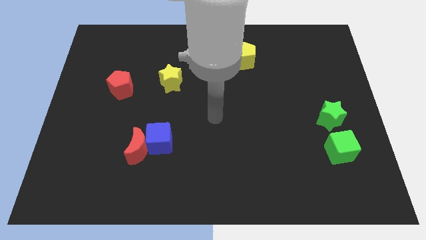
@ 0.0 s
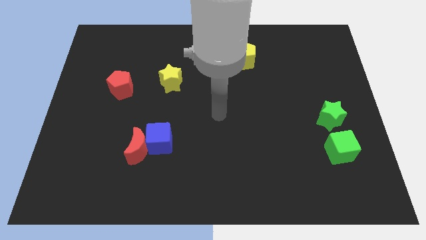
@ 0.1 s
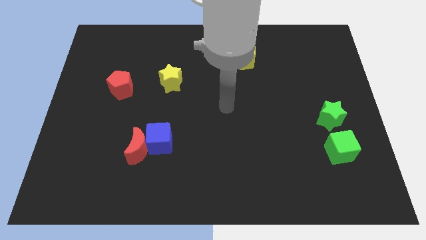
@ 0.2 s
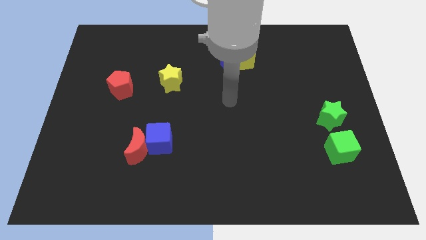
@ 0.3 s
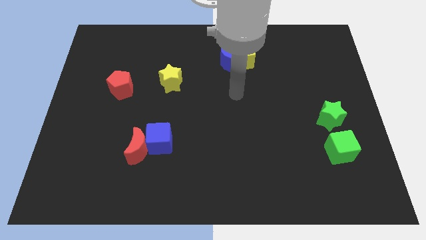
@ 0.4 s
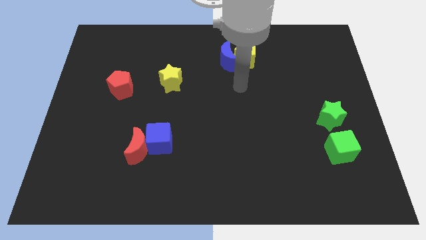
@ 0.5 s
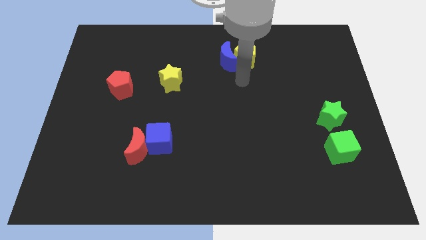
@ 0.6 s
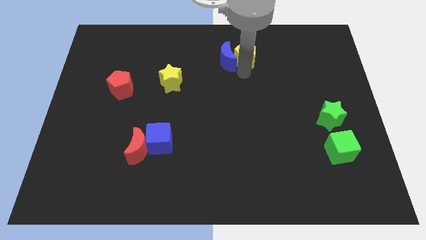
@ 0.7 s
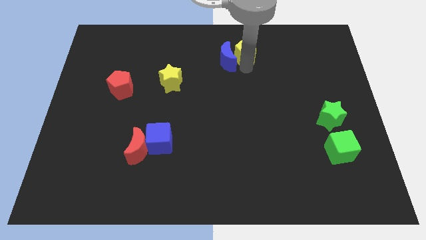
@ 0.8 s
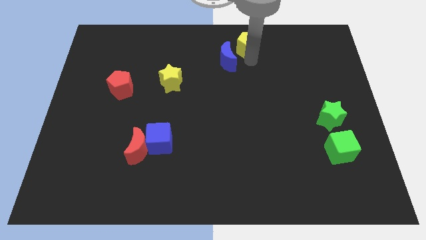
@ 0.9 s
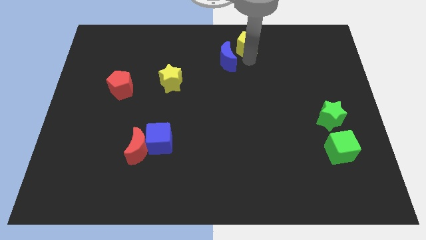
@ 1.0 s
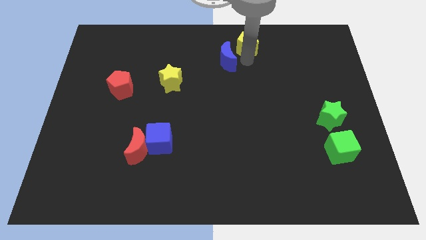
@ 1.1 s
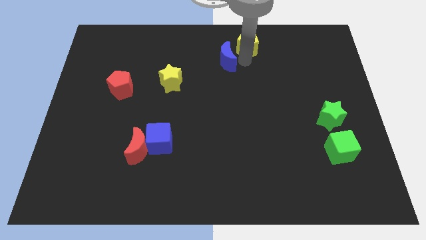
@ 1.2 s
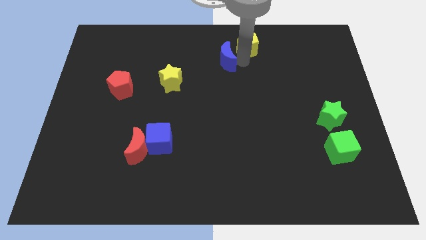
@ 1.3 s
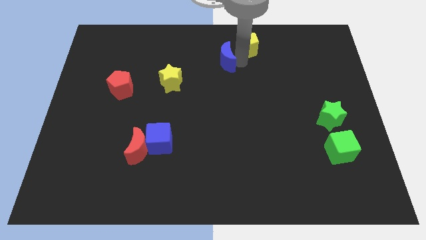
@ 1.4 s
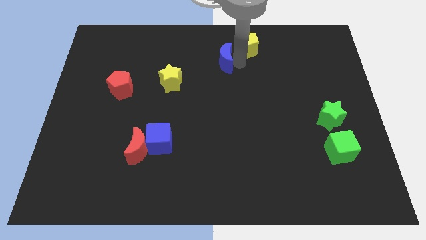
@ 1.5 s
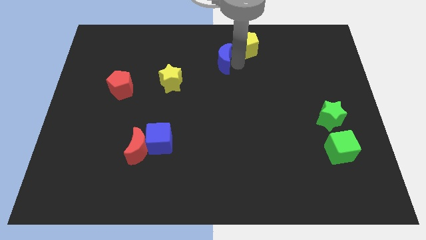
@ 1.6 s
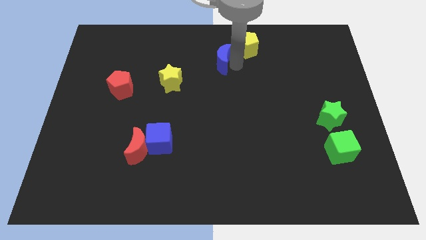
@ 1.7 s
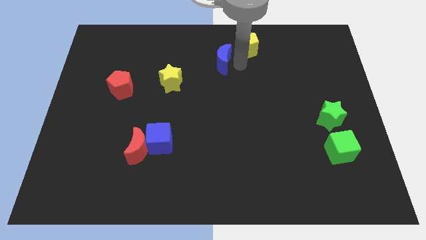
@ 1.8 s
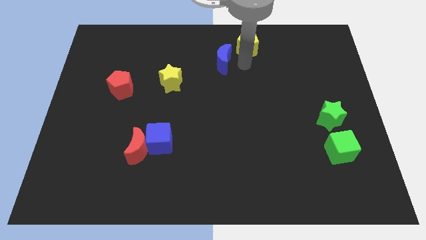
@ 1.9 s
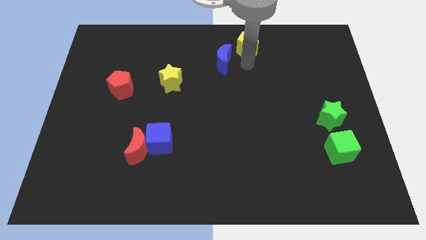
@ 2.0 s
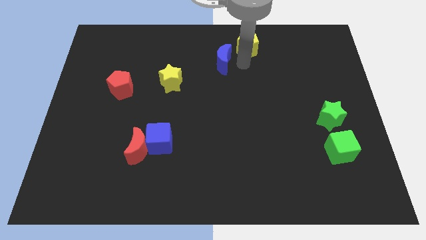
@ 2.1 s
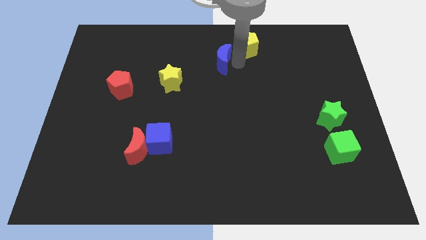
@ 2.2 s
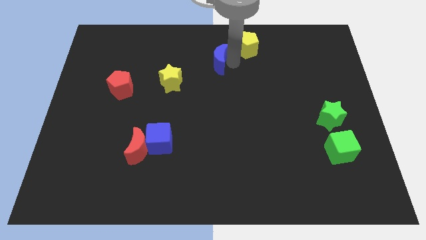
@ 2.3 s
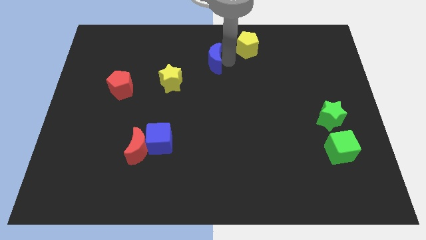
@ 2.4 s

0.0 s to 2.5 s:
pull the blue moon apart from the yellow pentagon

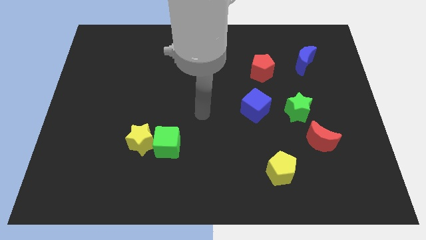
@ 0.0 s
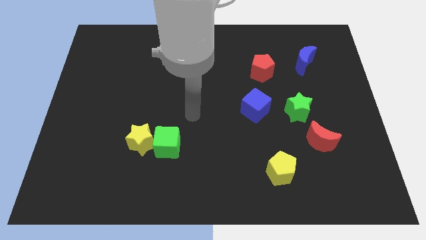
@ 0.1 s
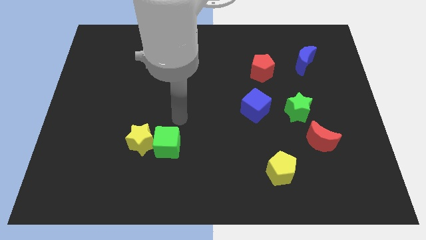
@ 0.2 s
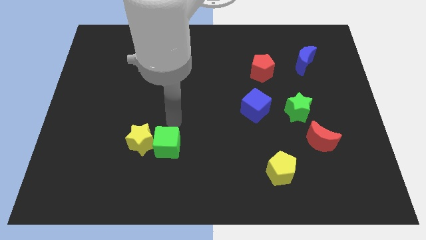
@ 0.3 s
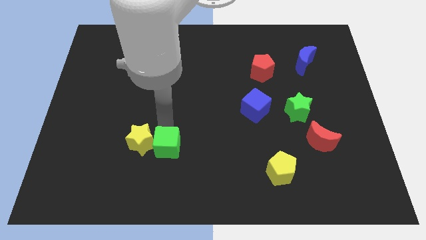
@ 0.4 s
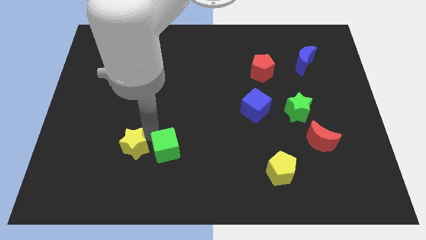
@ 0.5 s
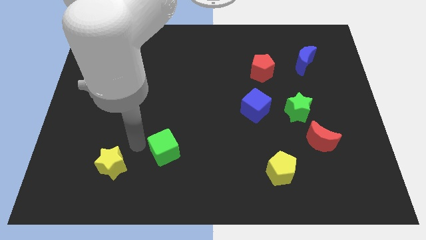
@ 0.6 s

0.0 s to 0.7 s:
pull the green cube apart from the yellow star

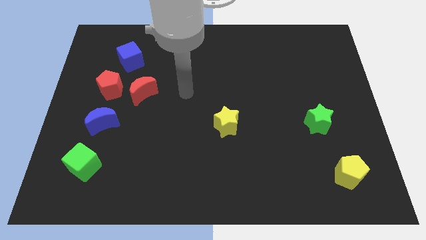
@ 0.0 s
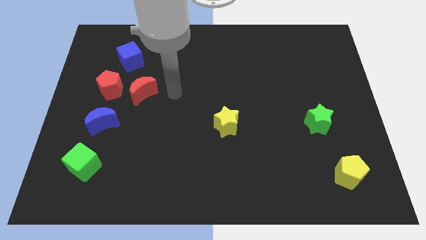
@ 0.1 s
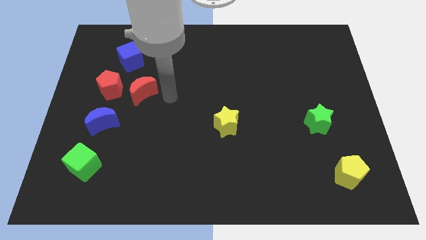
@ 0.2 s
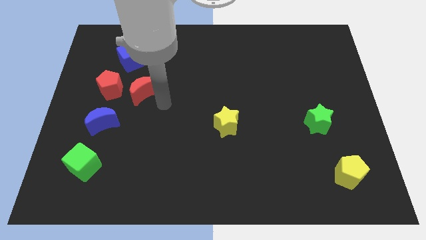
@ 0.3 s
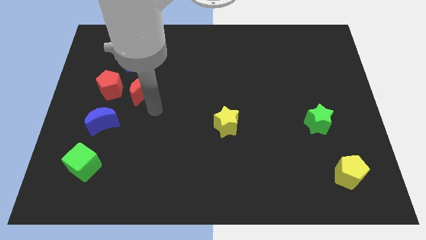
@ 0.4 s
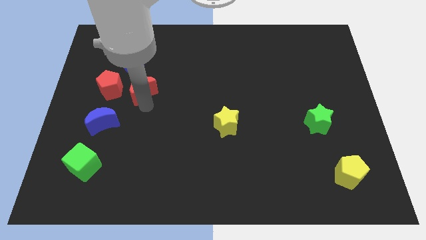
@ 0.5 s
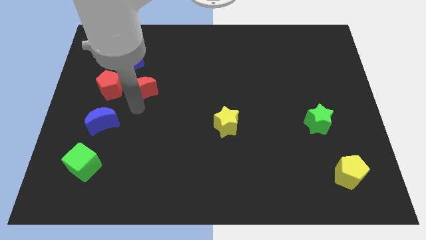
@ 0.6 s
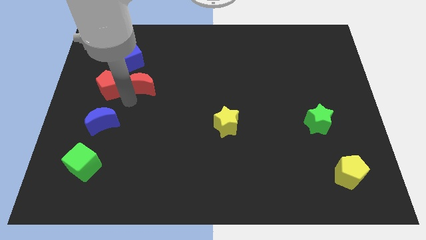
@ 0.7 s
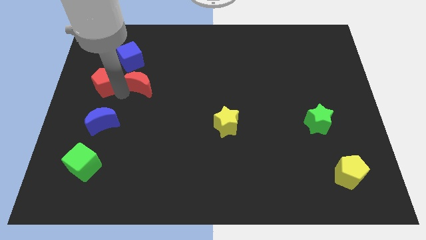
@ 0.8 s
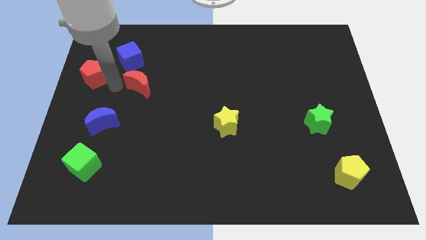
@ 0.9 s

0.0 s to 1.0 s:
move the red moon away from the red pentagon

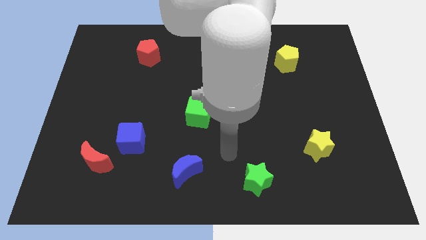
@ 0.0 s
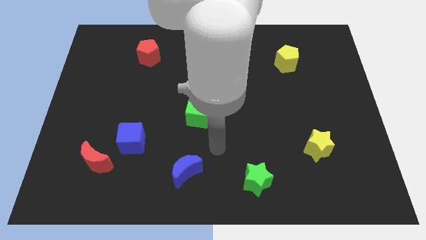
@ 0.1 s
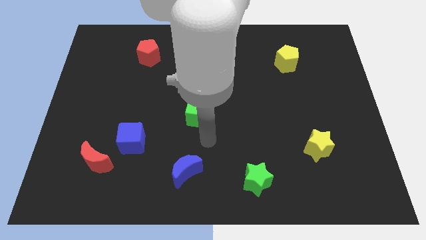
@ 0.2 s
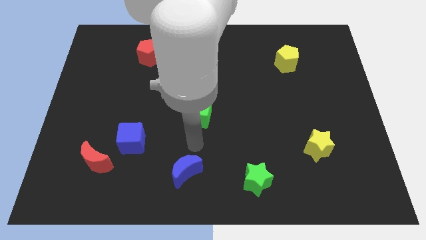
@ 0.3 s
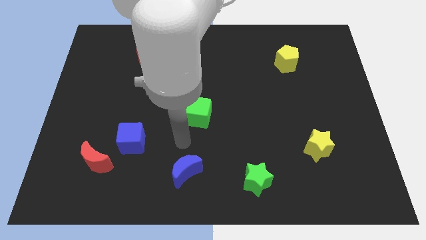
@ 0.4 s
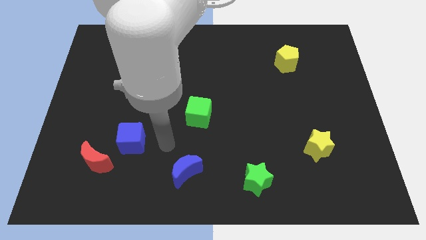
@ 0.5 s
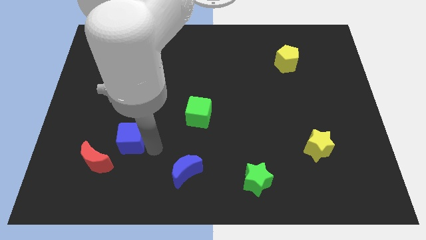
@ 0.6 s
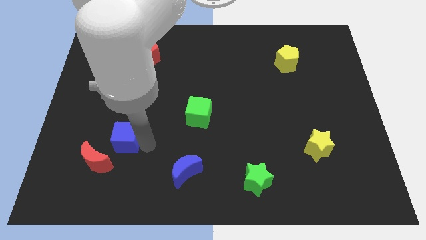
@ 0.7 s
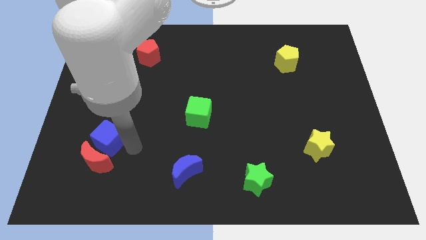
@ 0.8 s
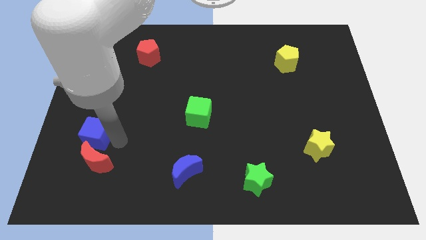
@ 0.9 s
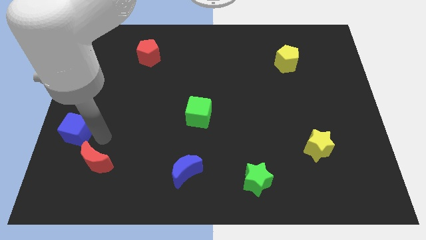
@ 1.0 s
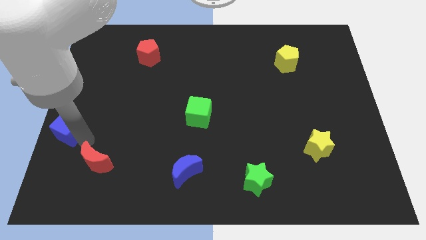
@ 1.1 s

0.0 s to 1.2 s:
pull the red moon apart from the blue cube

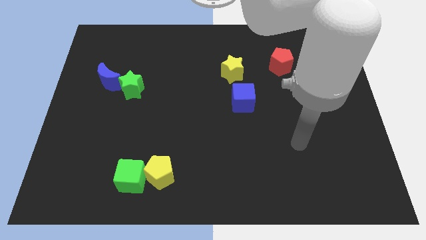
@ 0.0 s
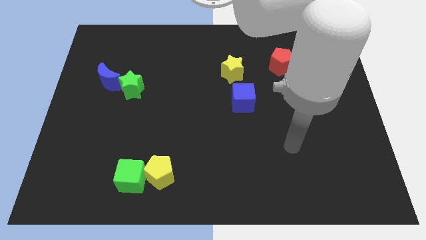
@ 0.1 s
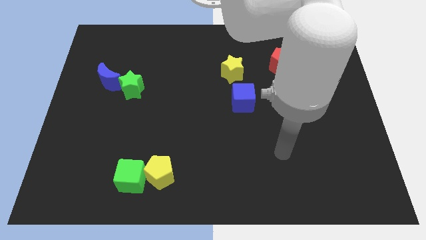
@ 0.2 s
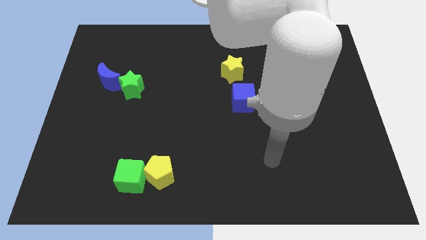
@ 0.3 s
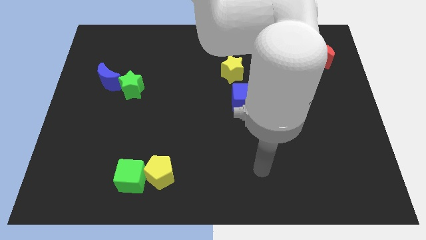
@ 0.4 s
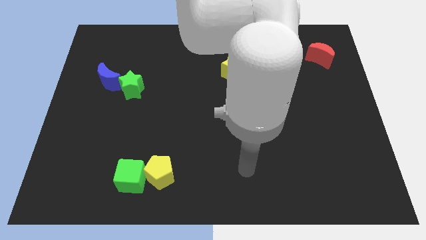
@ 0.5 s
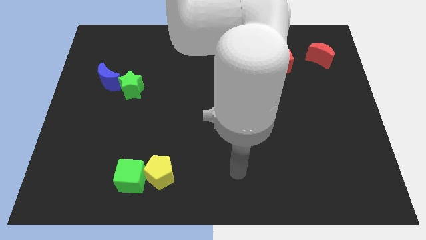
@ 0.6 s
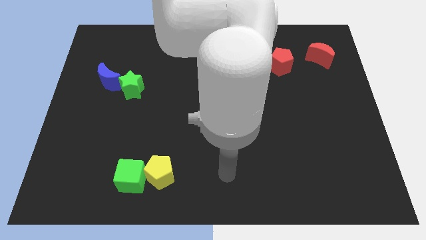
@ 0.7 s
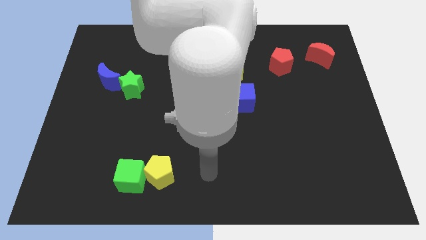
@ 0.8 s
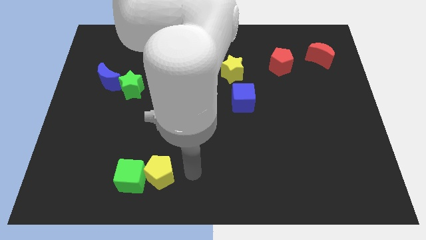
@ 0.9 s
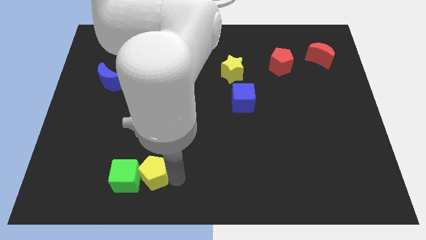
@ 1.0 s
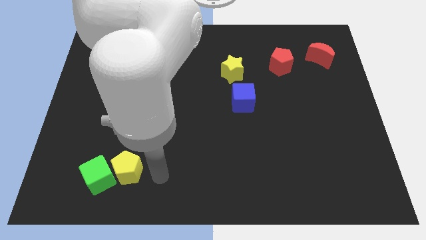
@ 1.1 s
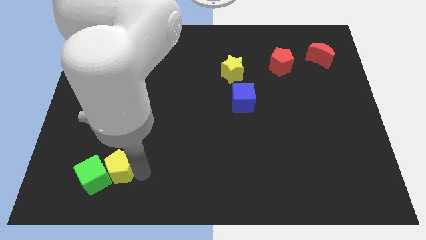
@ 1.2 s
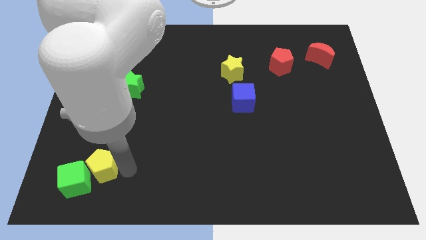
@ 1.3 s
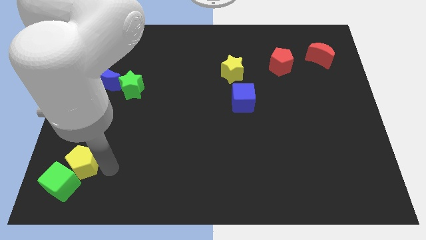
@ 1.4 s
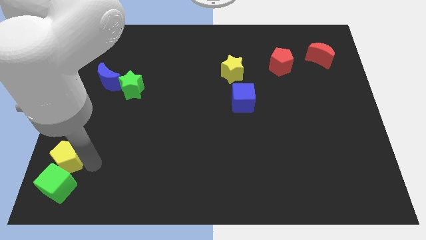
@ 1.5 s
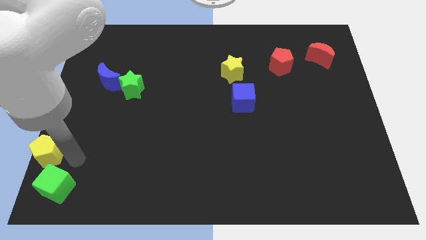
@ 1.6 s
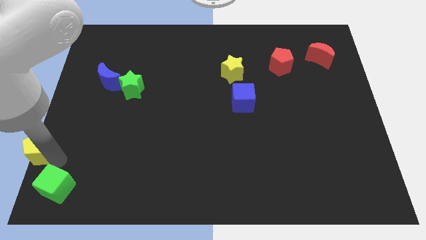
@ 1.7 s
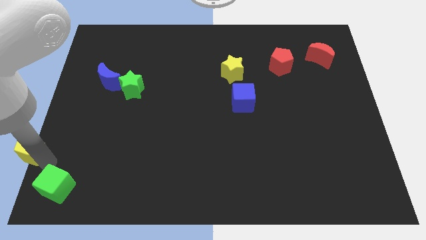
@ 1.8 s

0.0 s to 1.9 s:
move the green cube away from the yellow pentagon

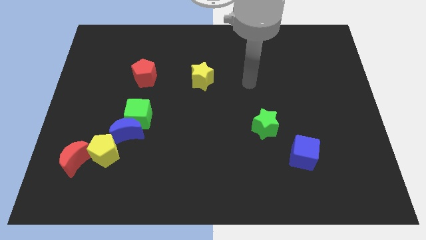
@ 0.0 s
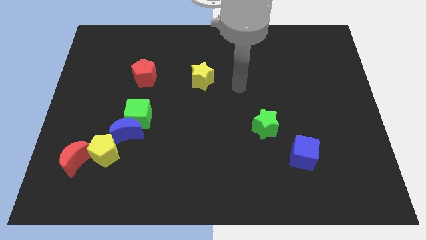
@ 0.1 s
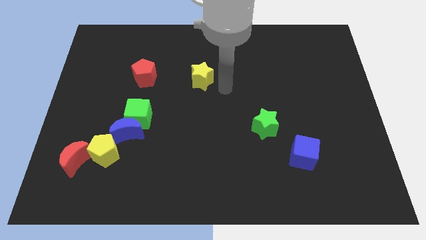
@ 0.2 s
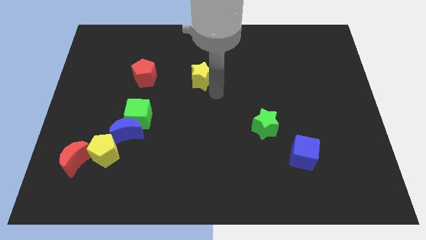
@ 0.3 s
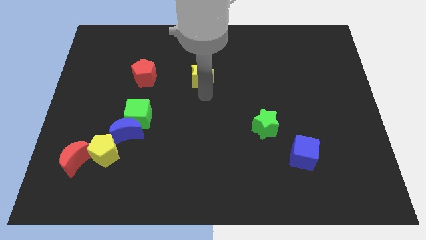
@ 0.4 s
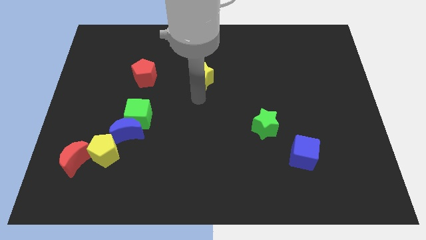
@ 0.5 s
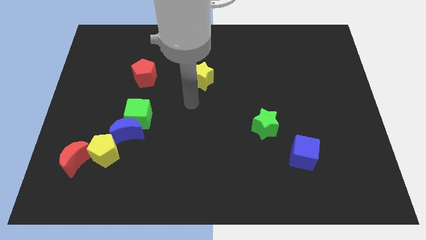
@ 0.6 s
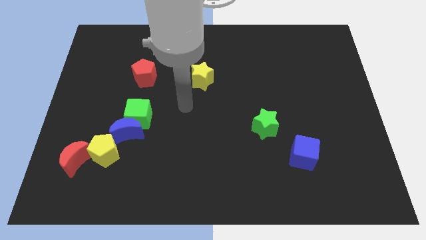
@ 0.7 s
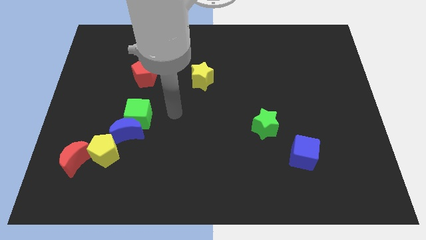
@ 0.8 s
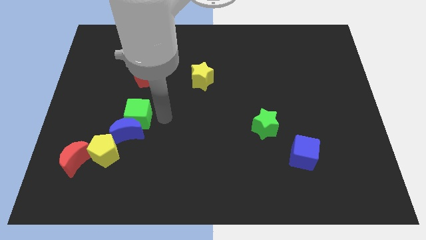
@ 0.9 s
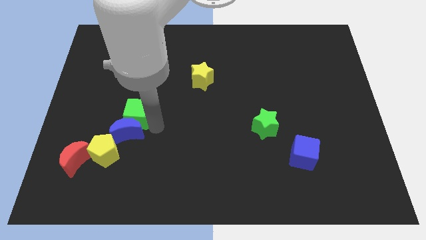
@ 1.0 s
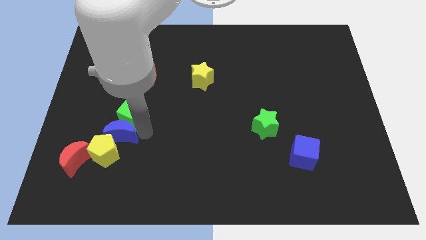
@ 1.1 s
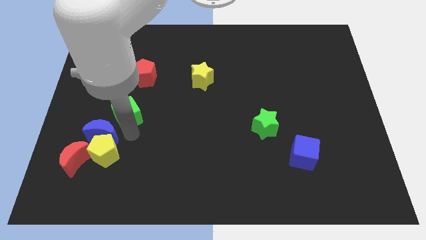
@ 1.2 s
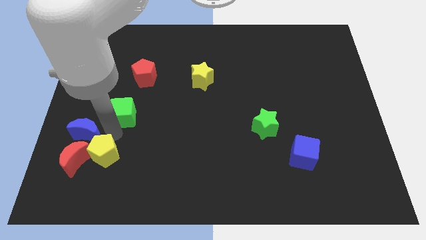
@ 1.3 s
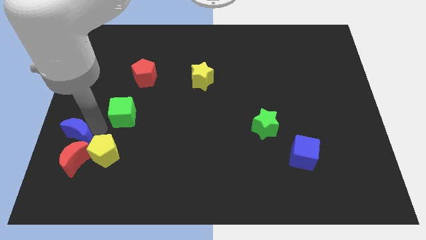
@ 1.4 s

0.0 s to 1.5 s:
move the green cube away from the blue moon

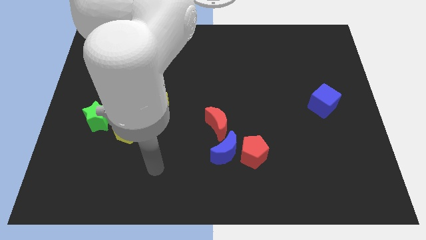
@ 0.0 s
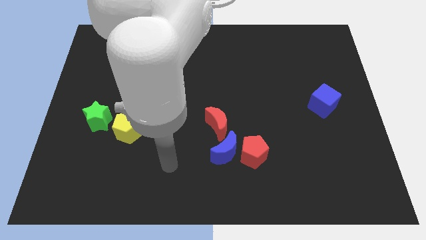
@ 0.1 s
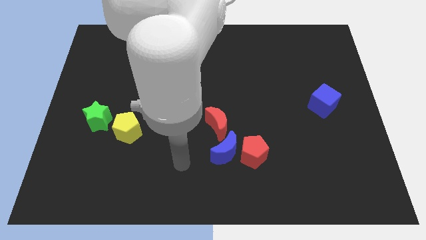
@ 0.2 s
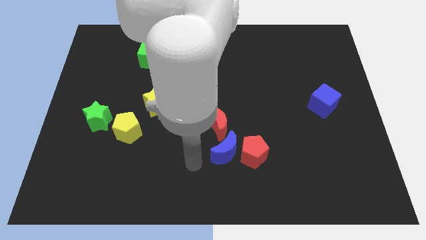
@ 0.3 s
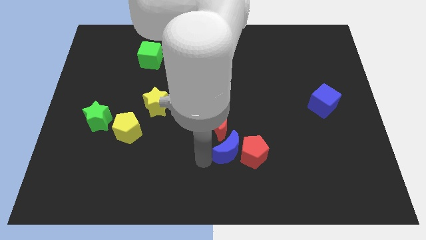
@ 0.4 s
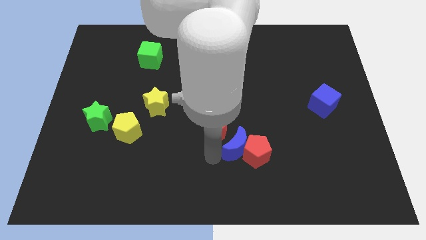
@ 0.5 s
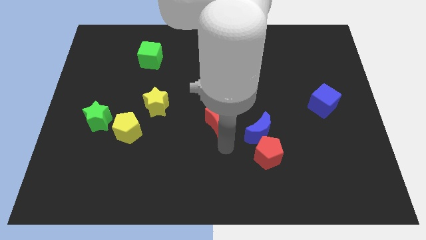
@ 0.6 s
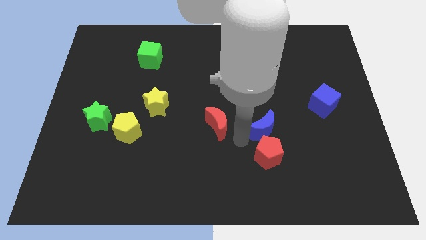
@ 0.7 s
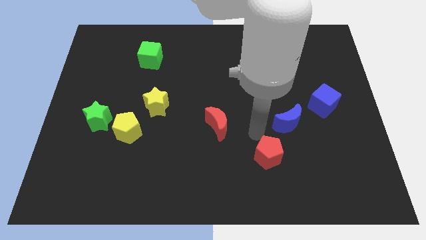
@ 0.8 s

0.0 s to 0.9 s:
pull the red pentagon apart from the blue moon
